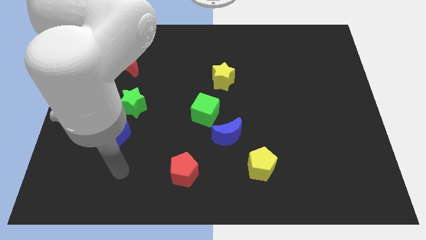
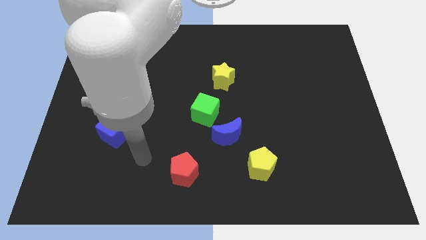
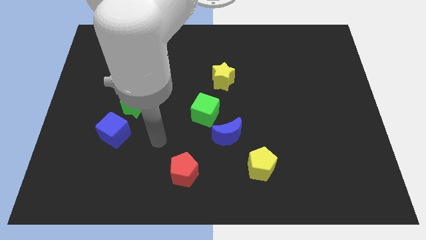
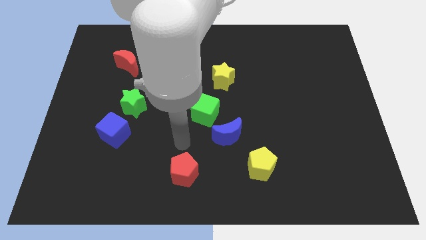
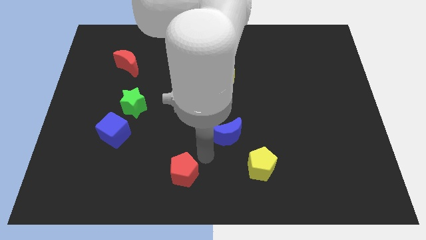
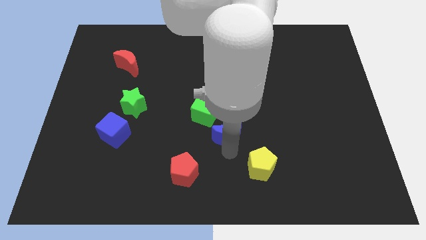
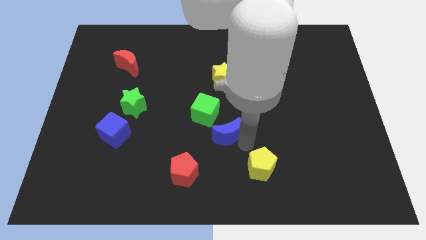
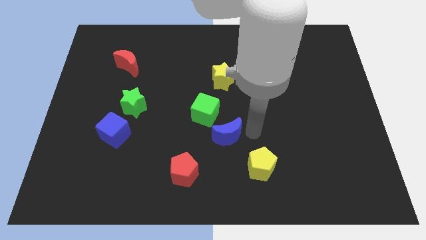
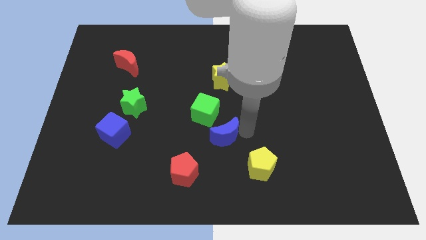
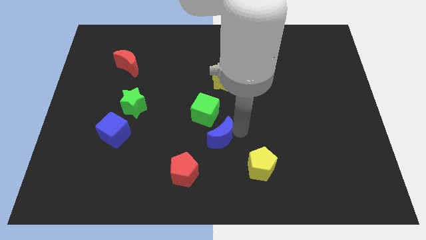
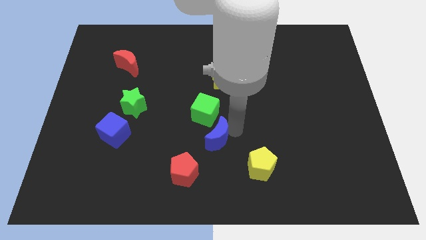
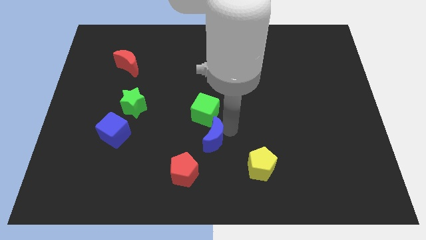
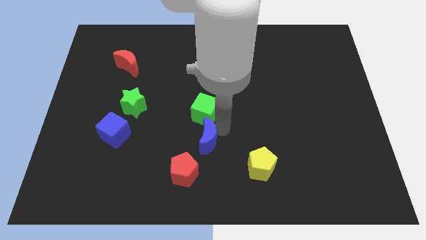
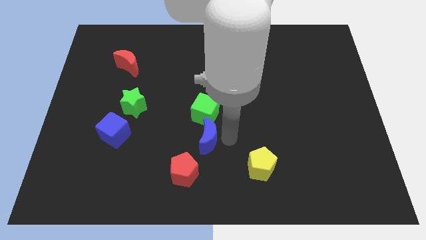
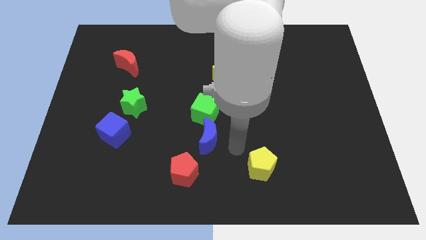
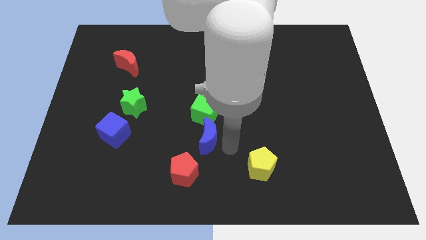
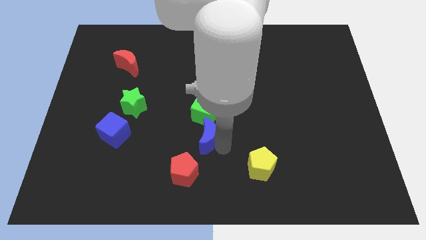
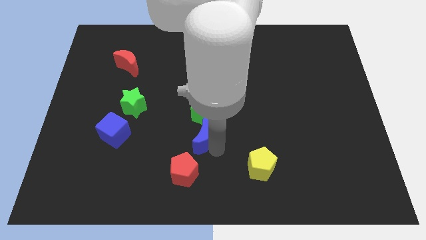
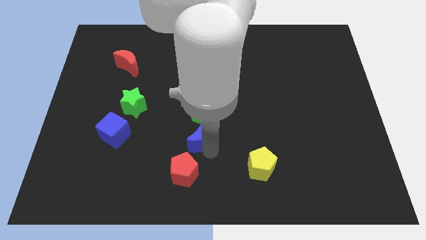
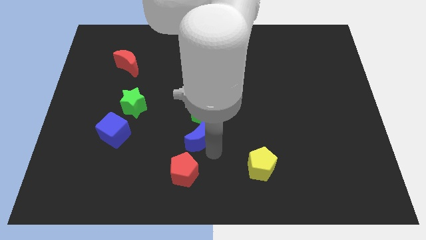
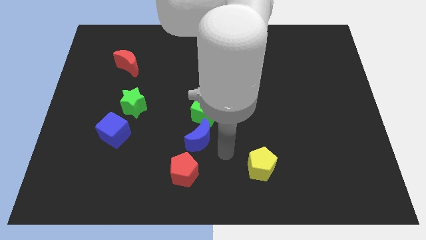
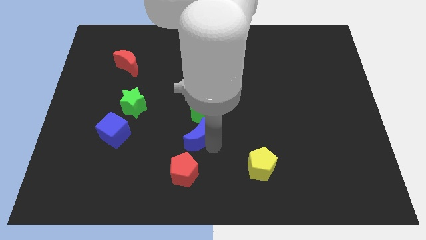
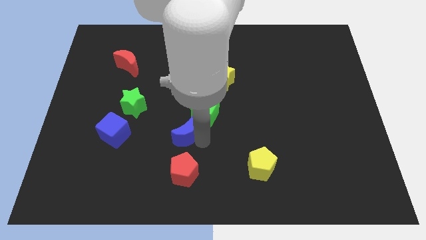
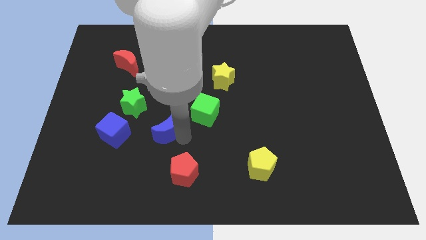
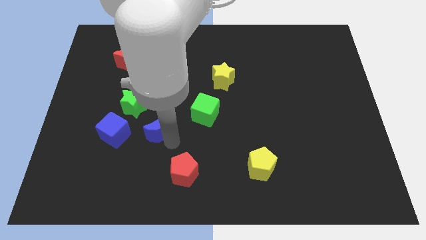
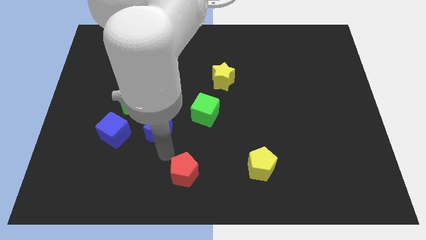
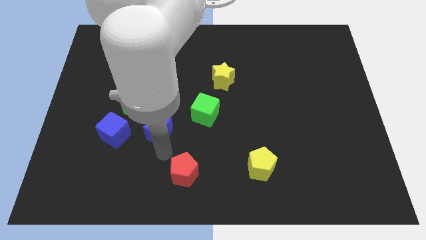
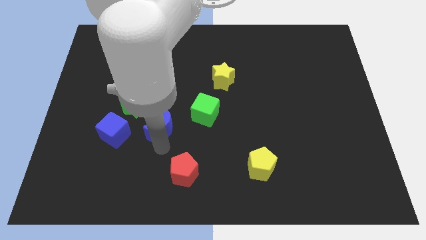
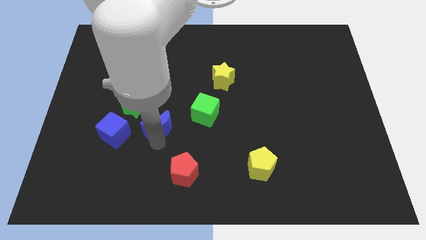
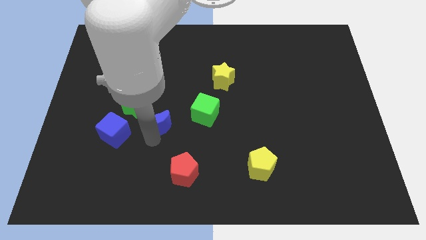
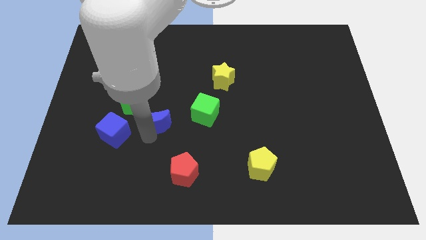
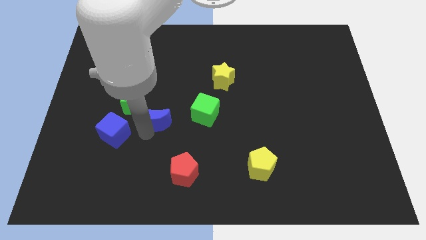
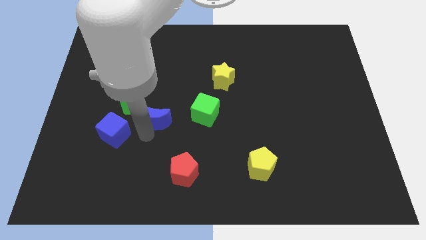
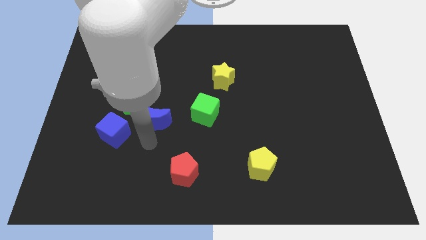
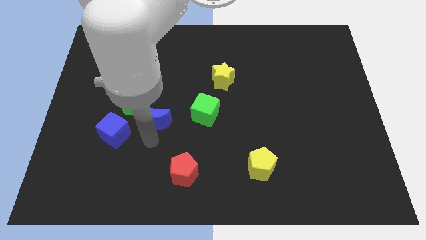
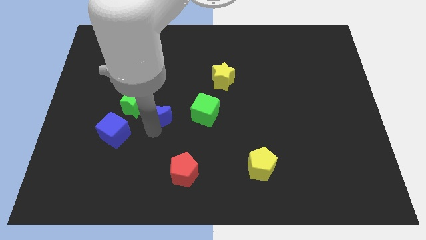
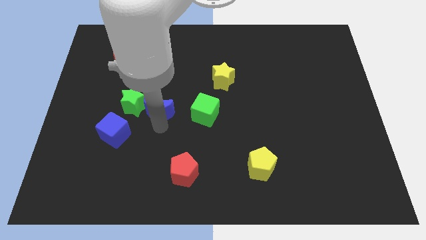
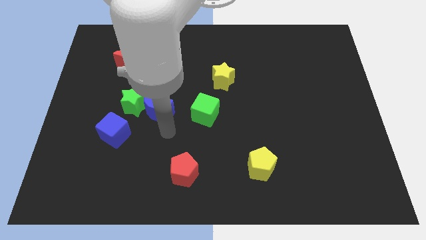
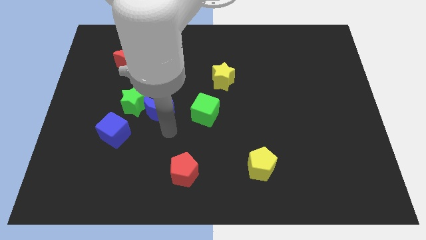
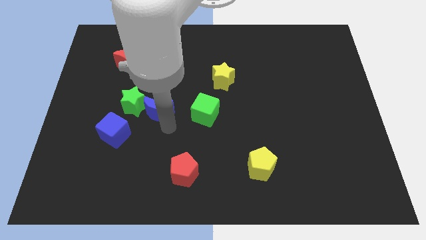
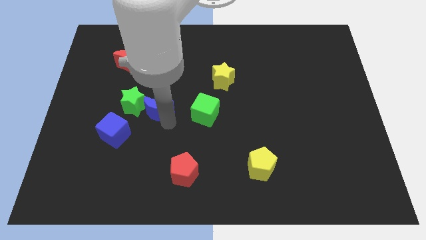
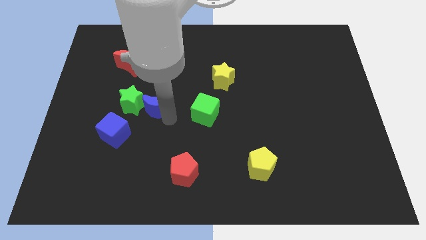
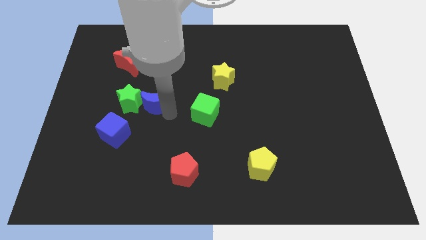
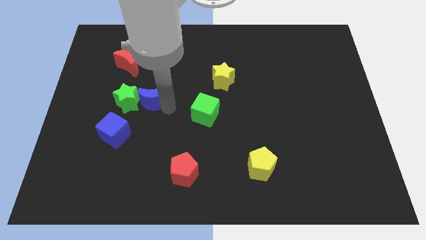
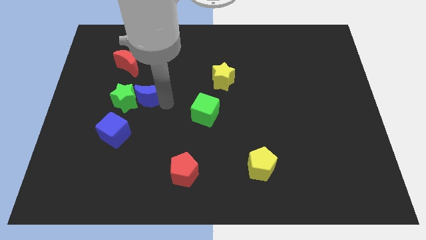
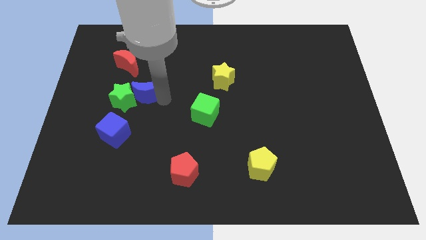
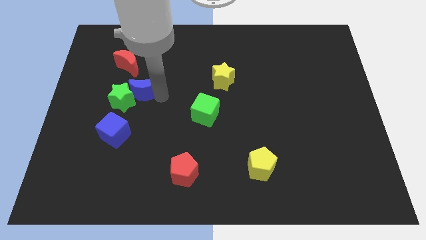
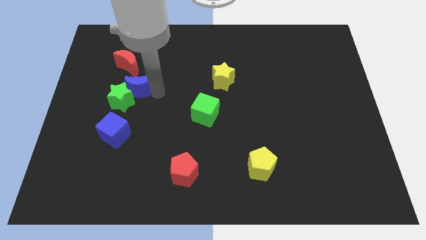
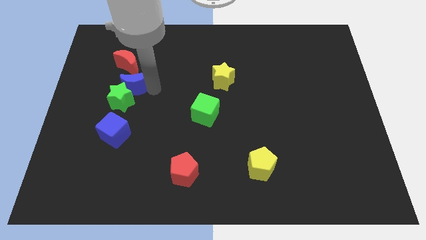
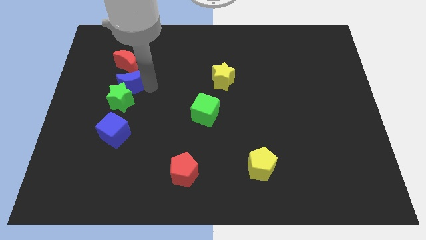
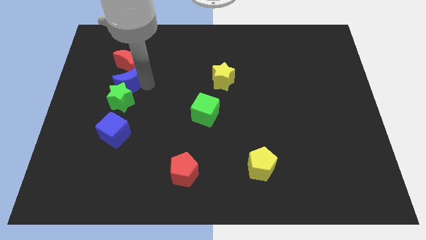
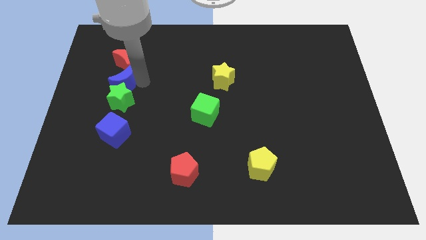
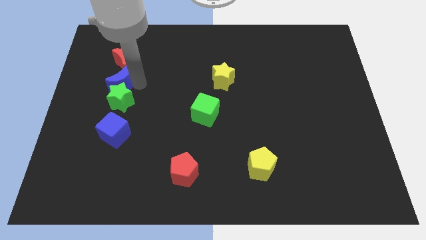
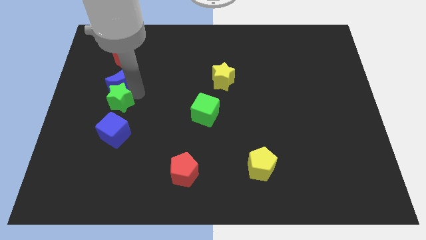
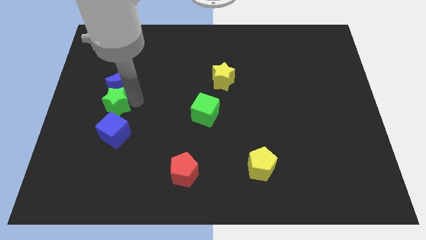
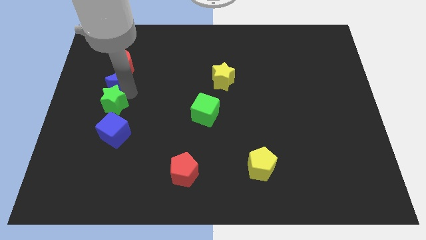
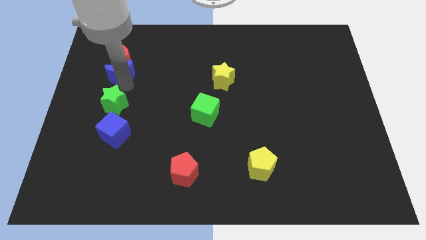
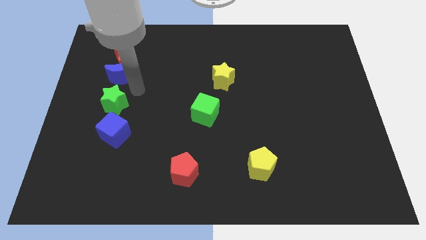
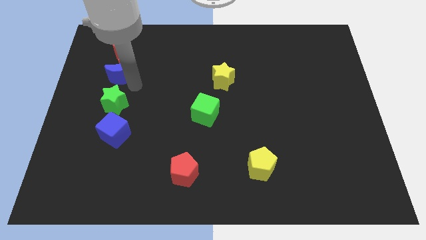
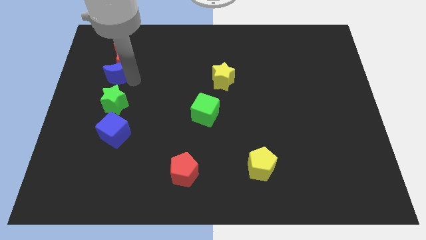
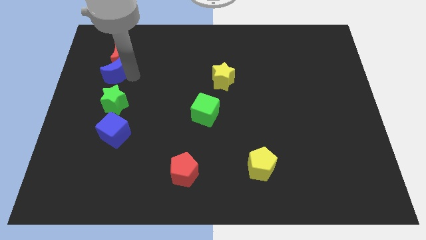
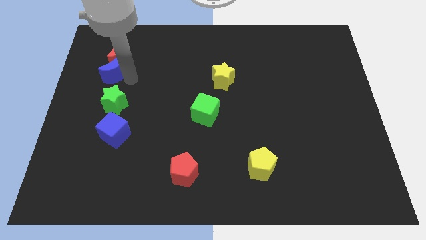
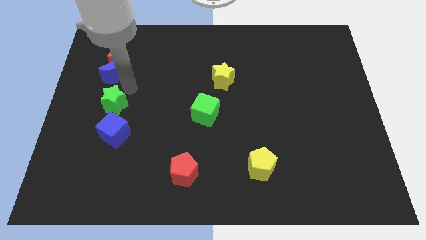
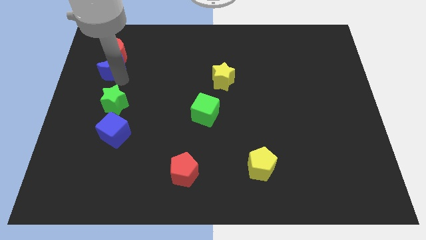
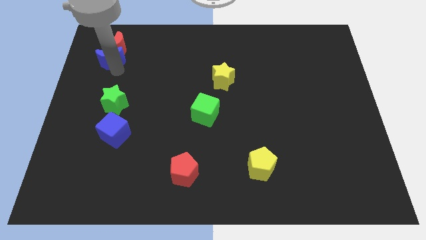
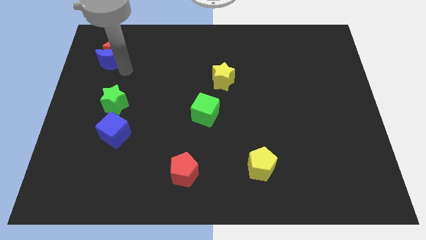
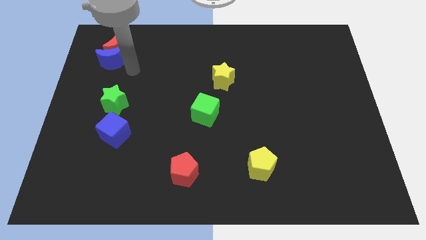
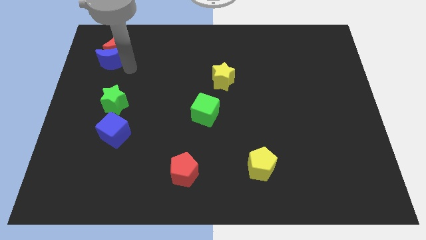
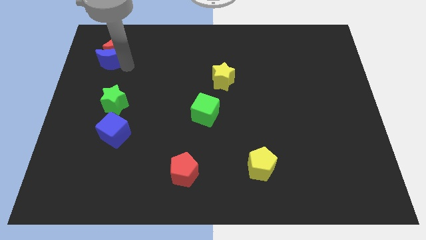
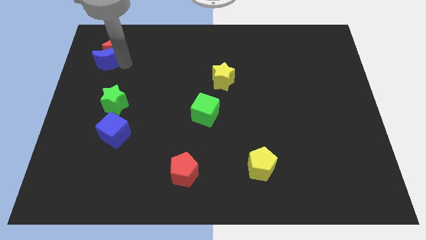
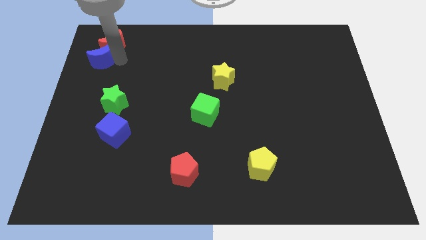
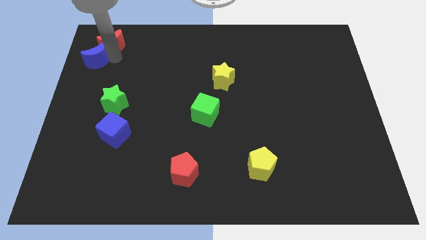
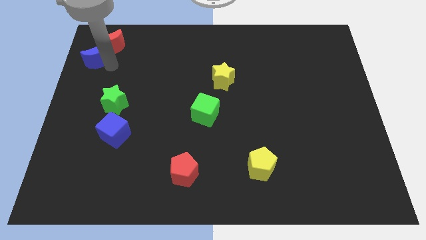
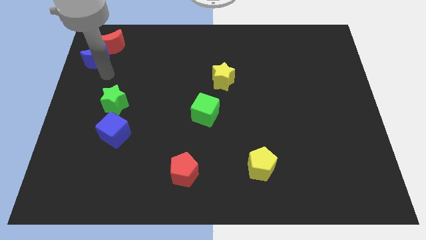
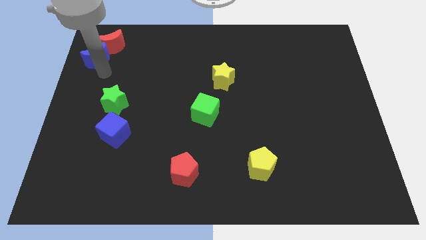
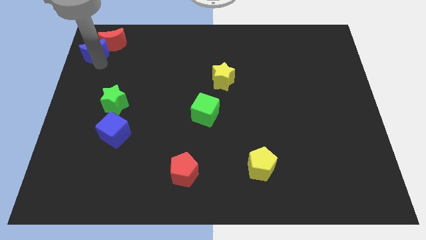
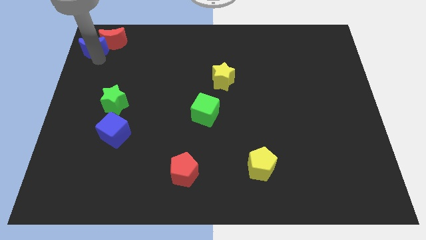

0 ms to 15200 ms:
push the blue moon to the upper left corner
